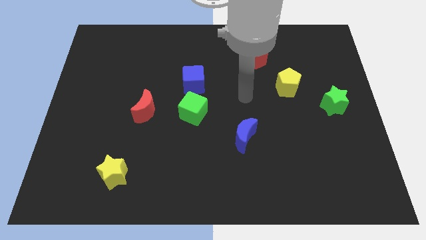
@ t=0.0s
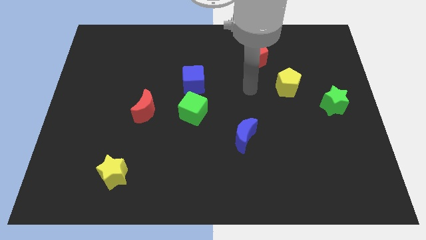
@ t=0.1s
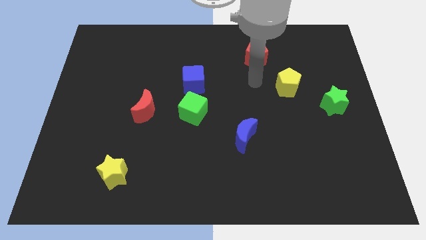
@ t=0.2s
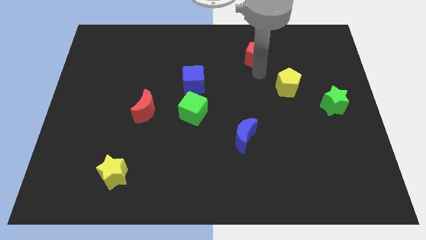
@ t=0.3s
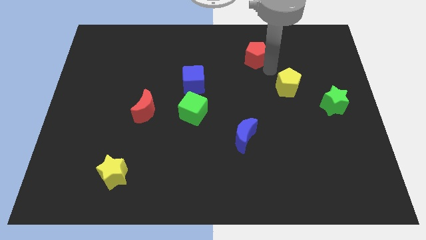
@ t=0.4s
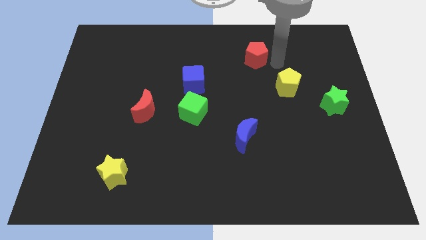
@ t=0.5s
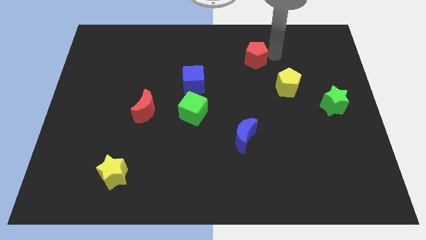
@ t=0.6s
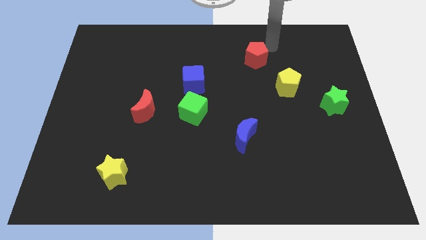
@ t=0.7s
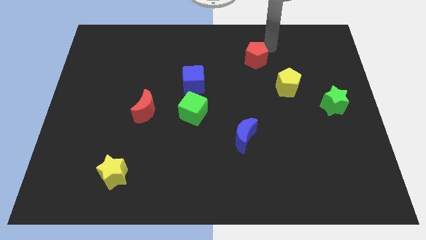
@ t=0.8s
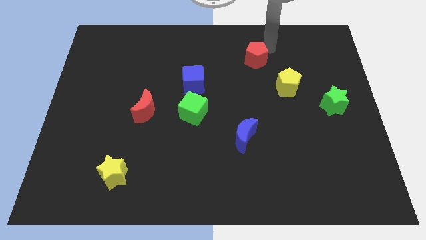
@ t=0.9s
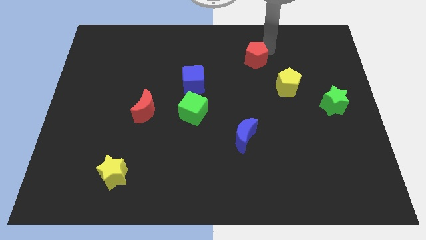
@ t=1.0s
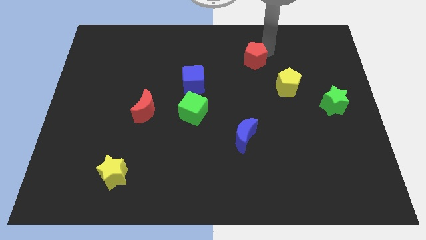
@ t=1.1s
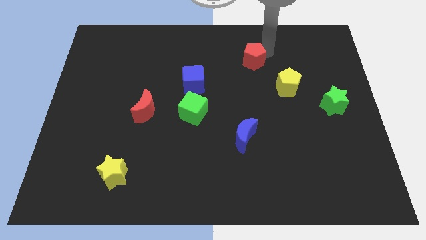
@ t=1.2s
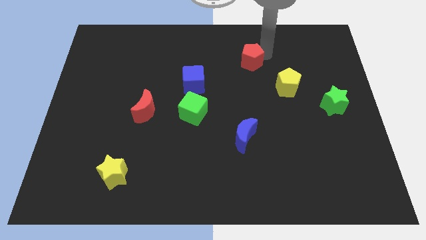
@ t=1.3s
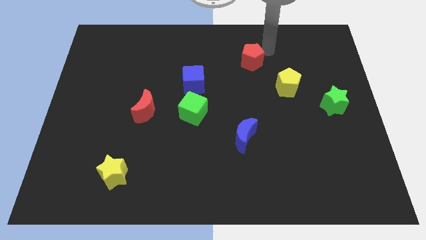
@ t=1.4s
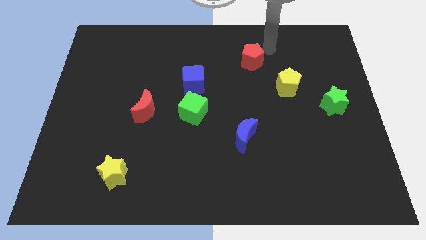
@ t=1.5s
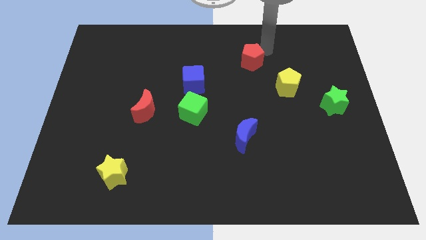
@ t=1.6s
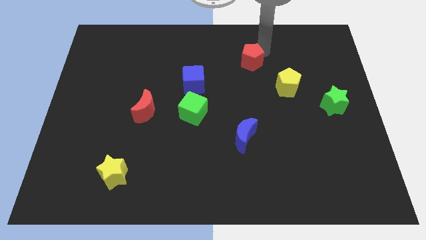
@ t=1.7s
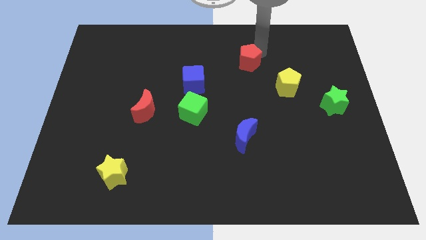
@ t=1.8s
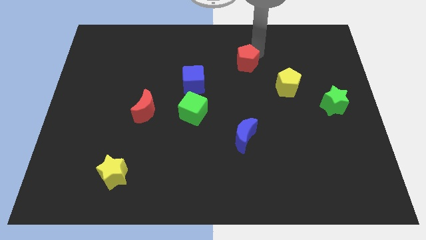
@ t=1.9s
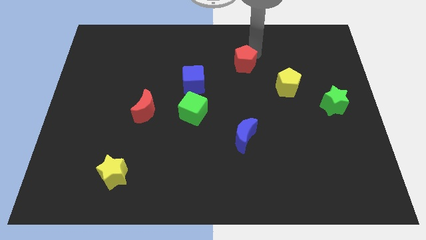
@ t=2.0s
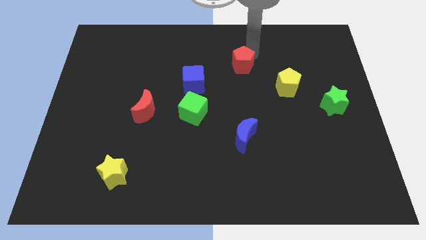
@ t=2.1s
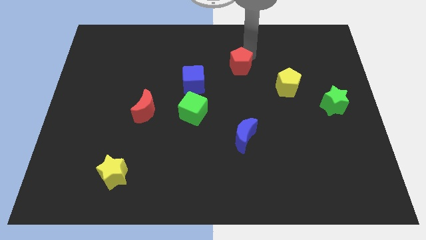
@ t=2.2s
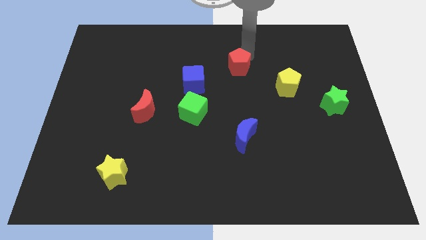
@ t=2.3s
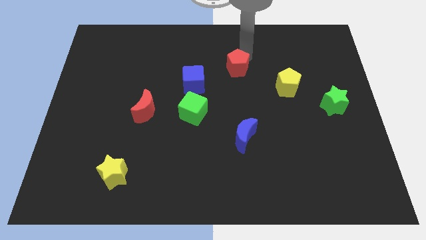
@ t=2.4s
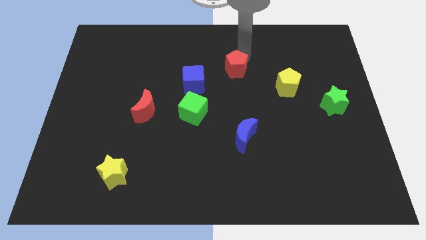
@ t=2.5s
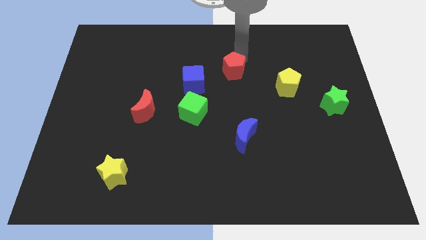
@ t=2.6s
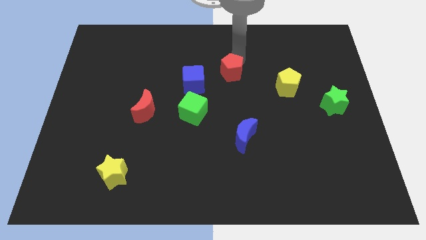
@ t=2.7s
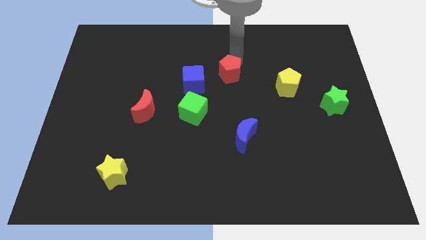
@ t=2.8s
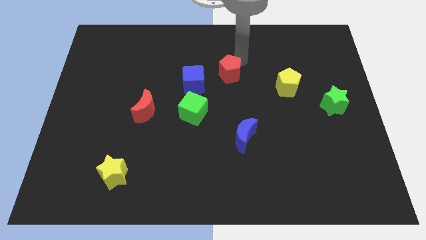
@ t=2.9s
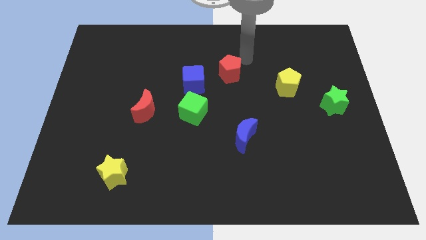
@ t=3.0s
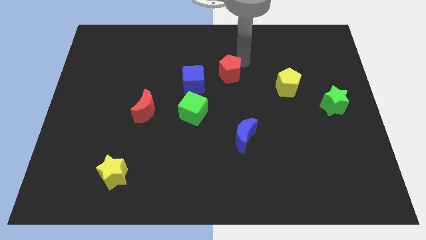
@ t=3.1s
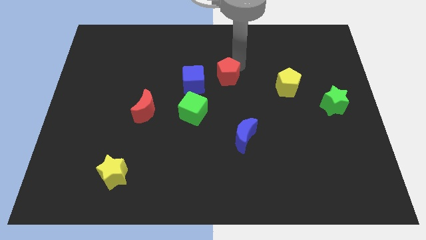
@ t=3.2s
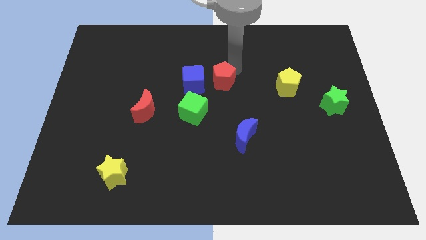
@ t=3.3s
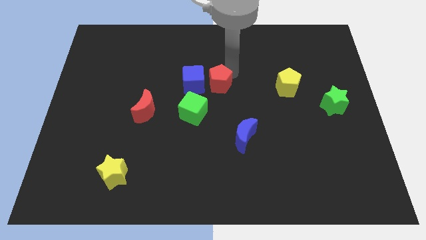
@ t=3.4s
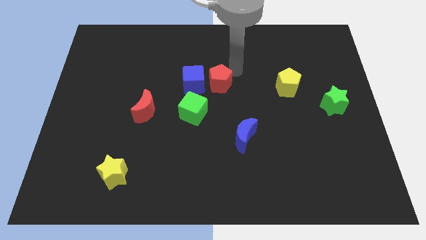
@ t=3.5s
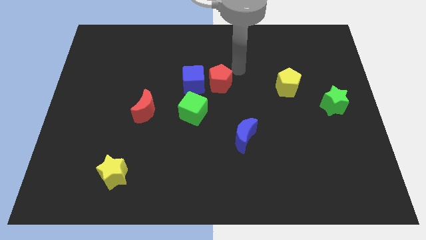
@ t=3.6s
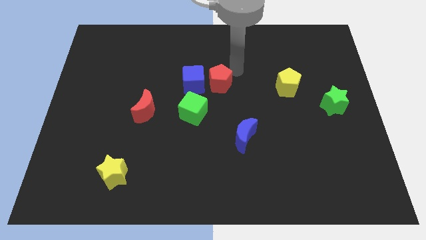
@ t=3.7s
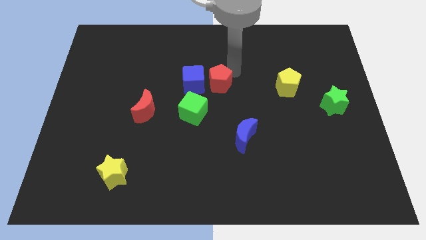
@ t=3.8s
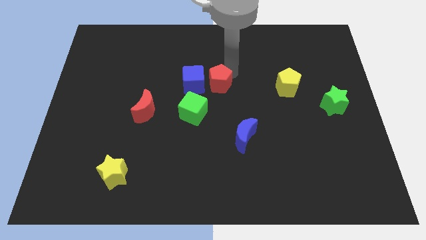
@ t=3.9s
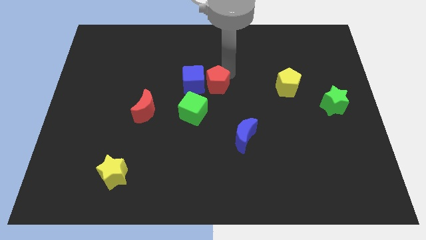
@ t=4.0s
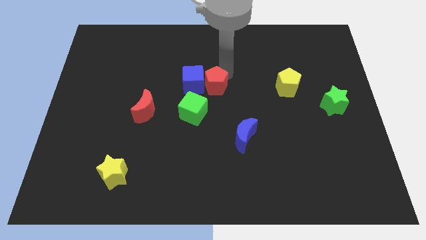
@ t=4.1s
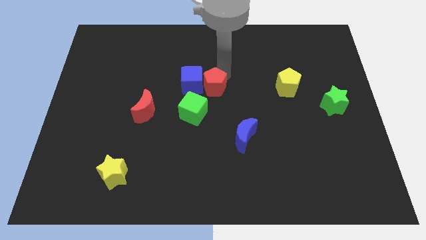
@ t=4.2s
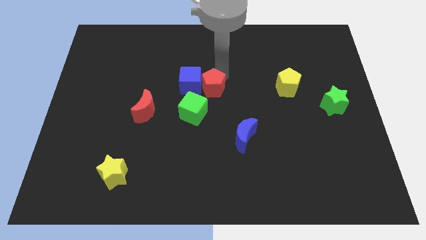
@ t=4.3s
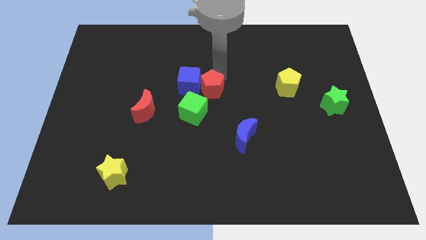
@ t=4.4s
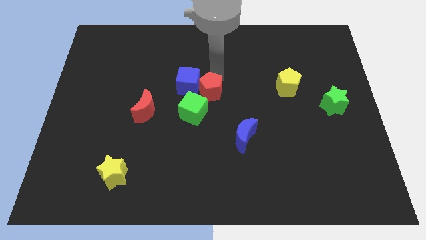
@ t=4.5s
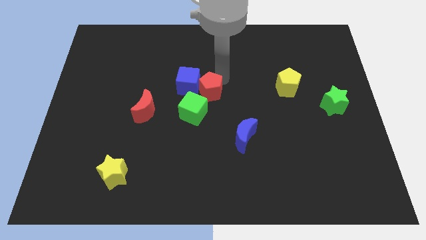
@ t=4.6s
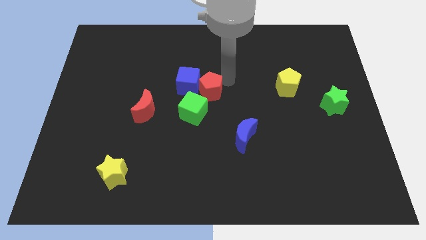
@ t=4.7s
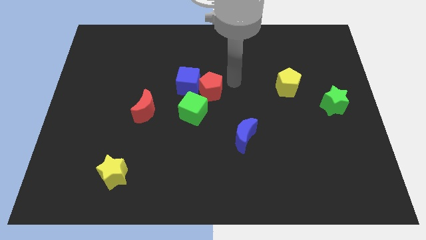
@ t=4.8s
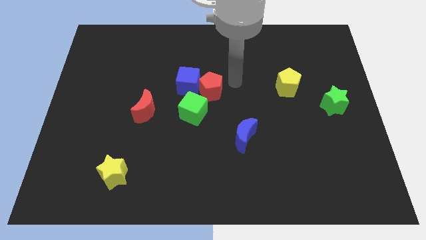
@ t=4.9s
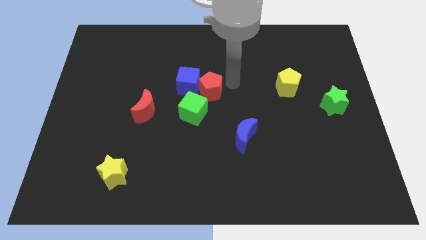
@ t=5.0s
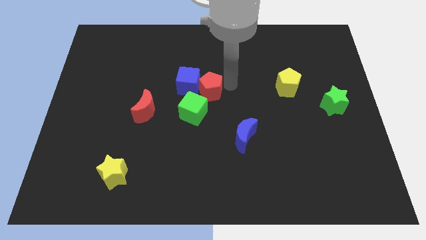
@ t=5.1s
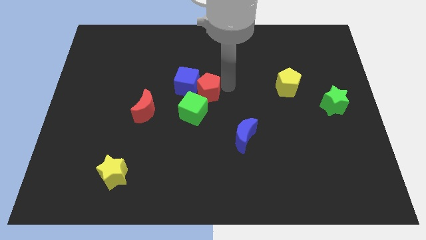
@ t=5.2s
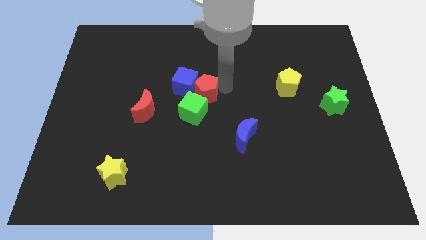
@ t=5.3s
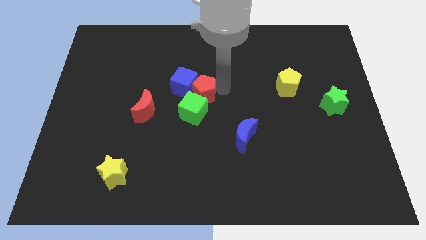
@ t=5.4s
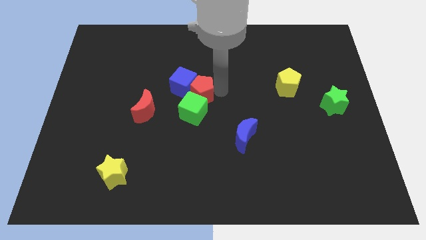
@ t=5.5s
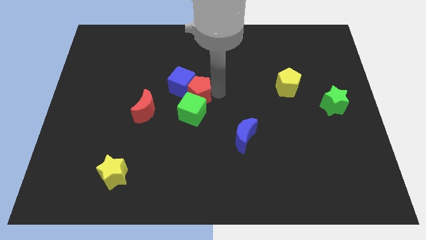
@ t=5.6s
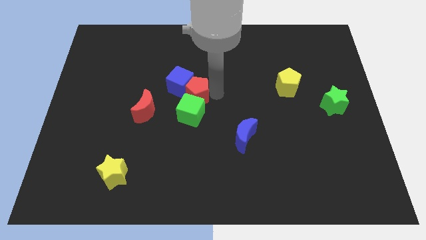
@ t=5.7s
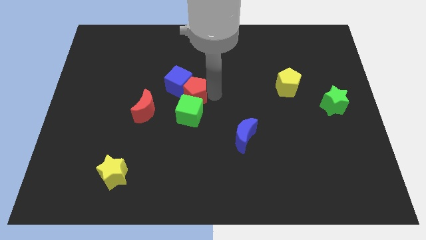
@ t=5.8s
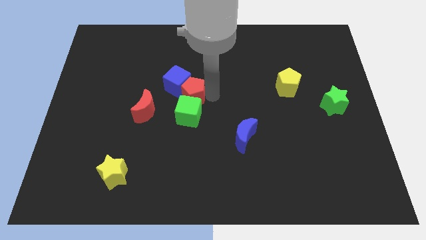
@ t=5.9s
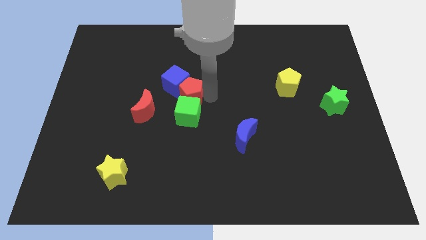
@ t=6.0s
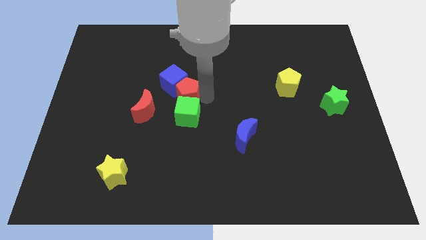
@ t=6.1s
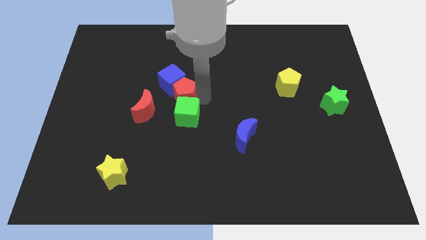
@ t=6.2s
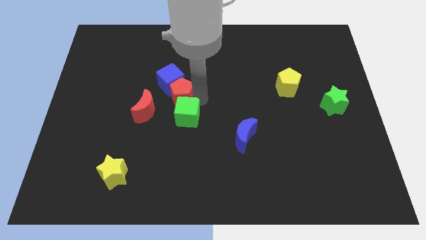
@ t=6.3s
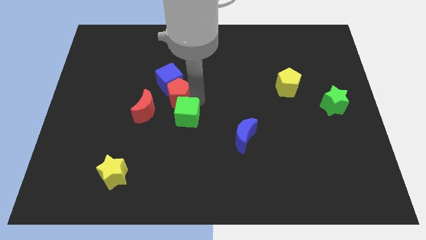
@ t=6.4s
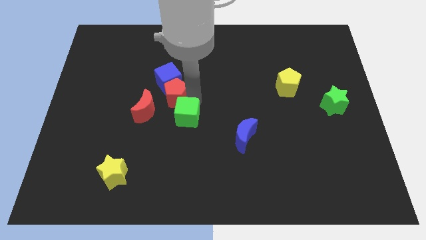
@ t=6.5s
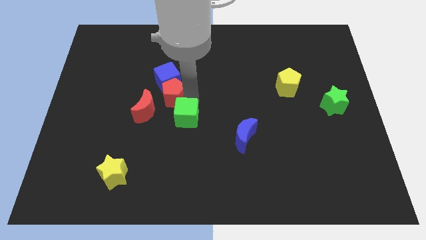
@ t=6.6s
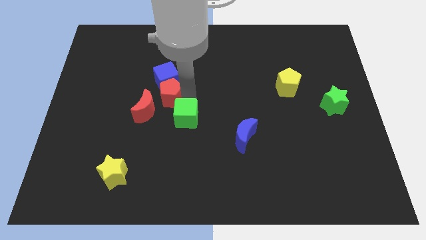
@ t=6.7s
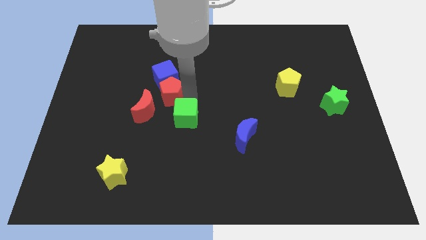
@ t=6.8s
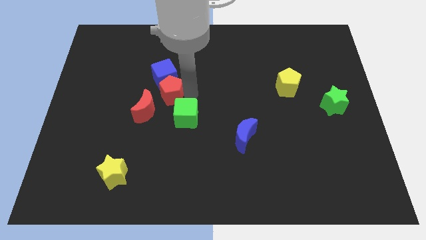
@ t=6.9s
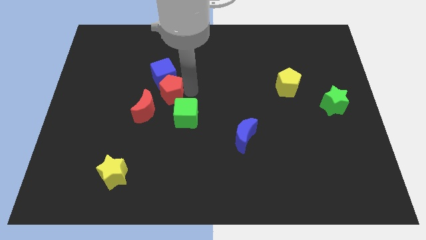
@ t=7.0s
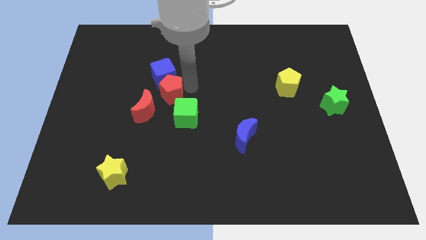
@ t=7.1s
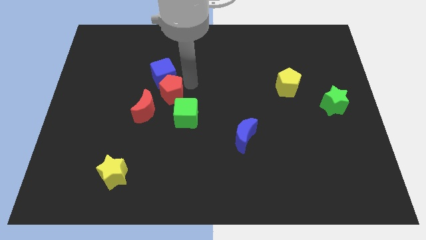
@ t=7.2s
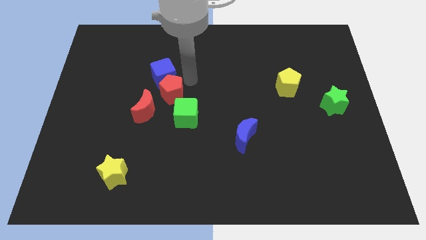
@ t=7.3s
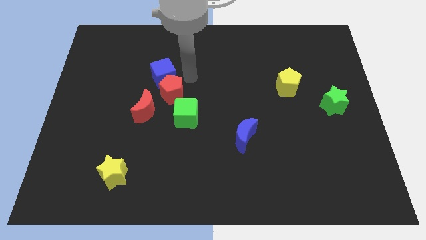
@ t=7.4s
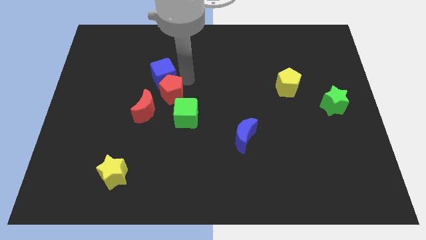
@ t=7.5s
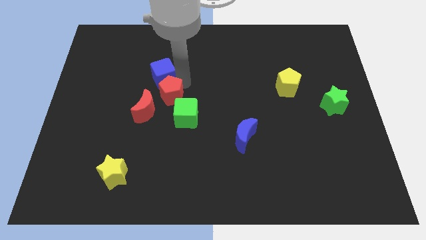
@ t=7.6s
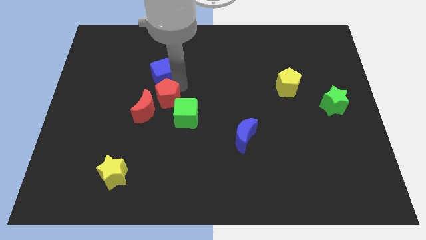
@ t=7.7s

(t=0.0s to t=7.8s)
push the red pentagon next to the red moon
